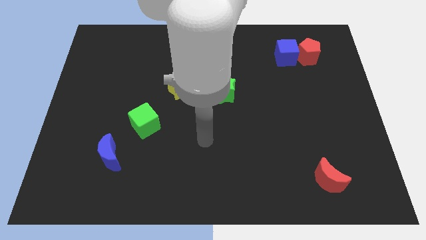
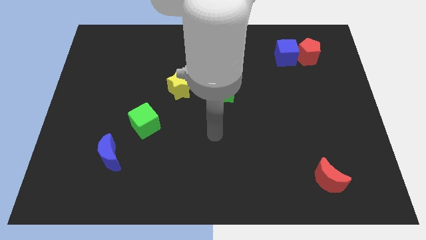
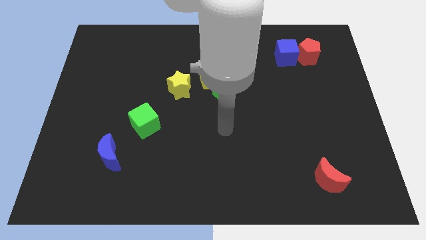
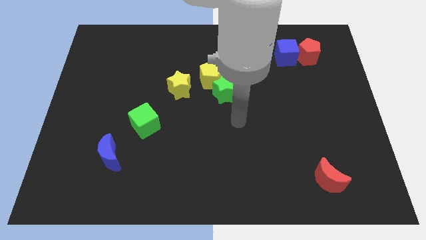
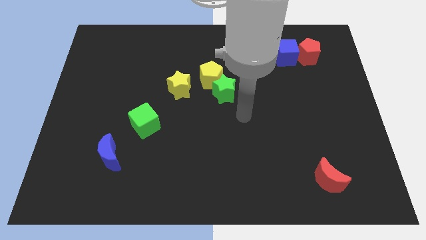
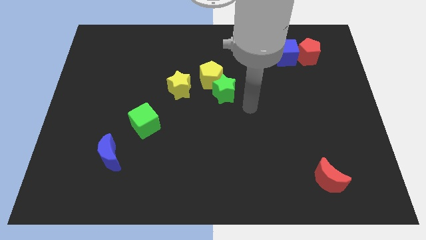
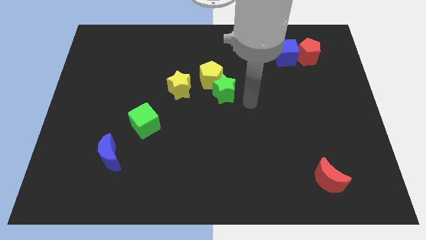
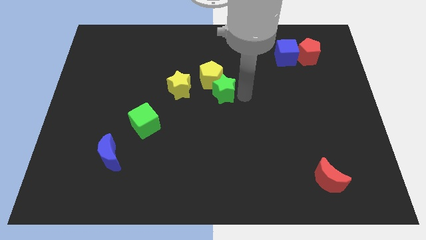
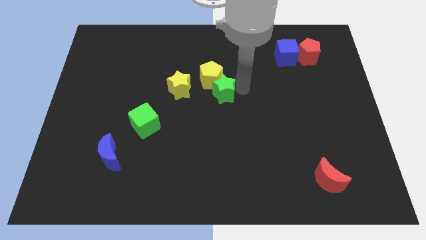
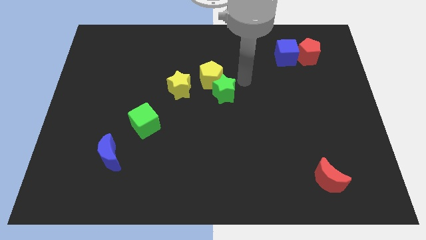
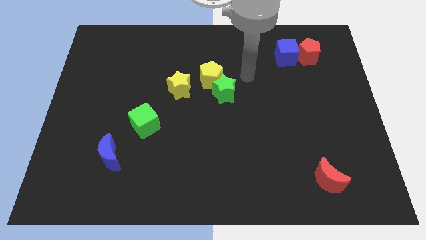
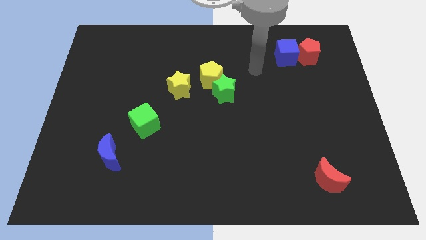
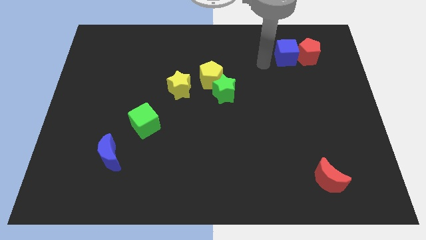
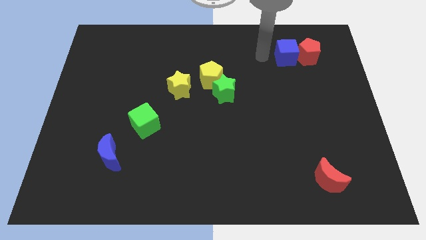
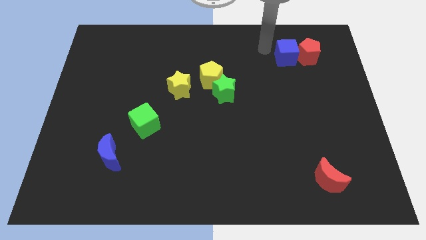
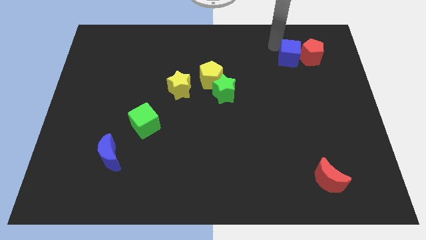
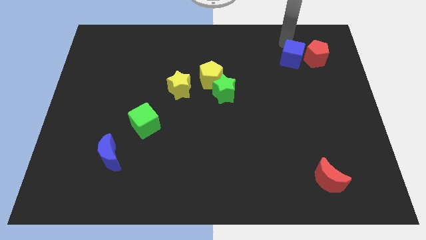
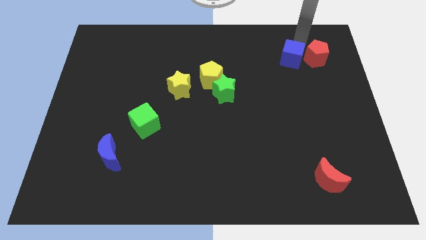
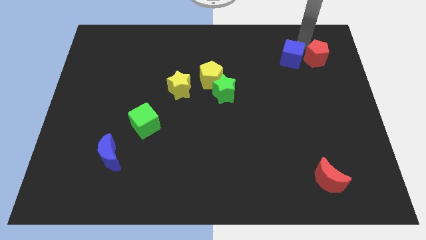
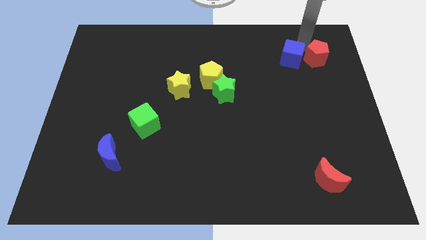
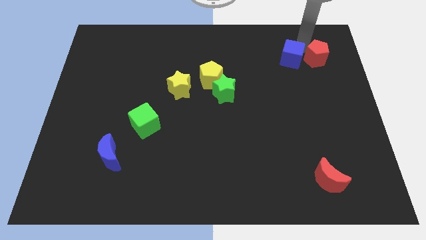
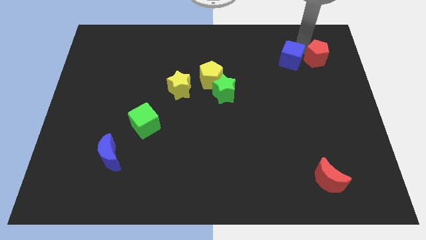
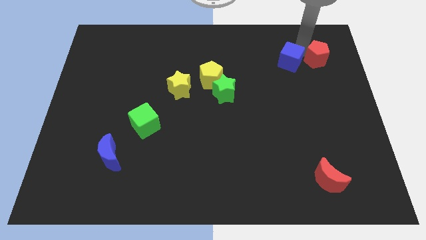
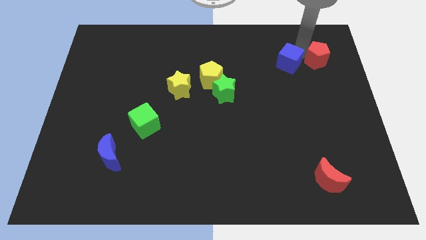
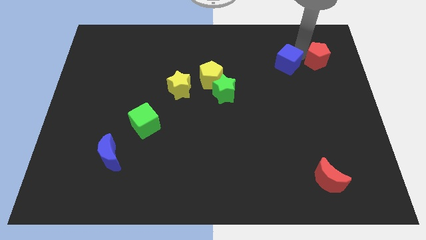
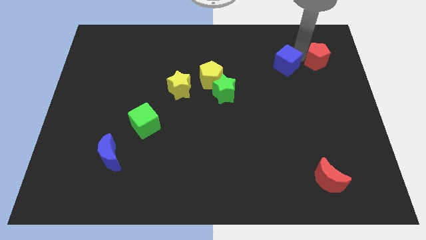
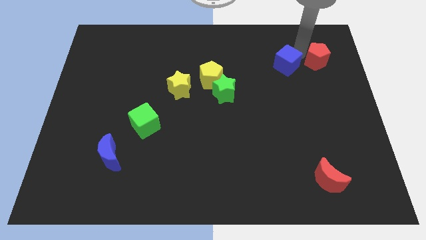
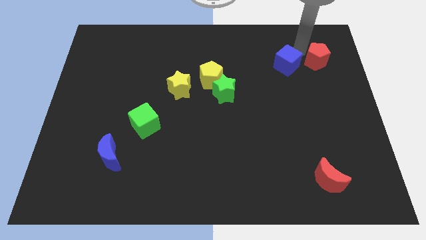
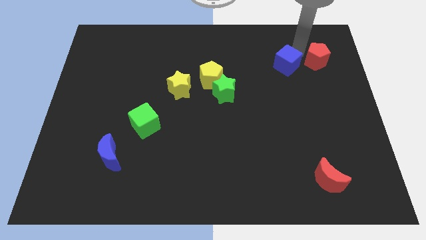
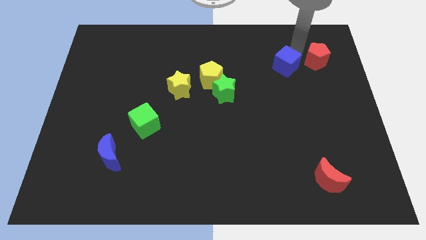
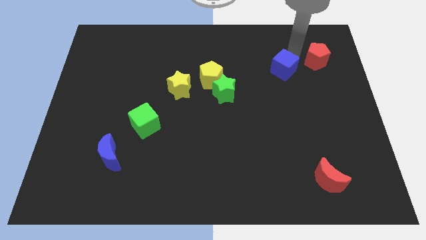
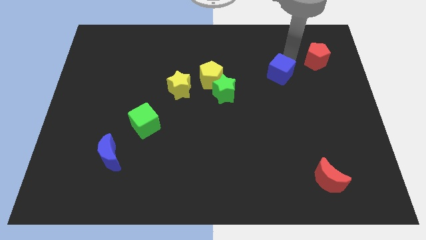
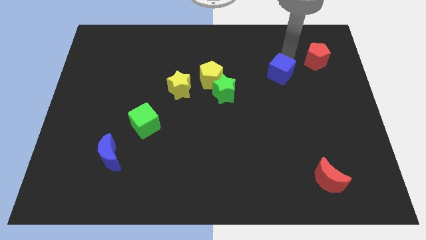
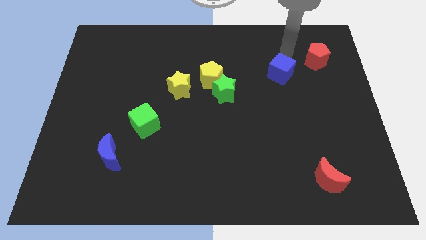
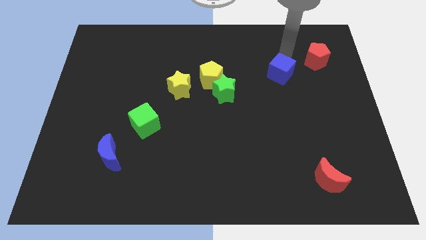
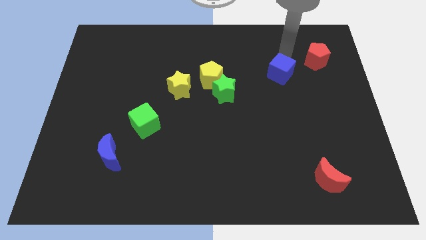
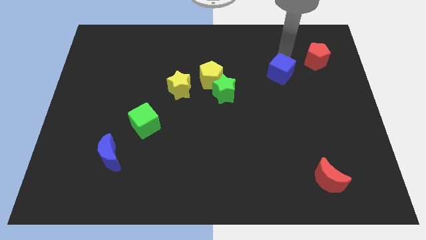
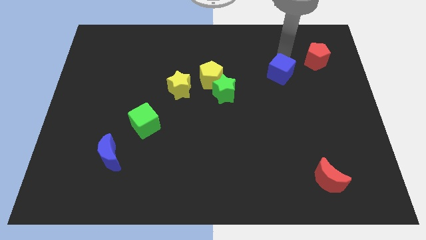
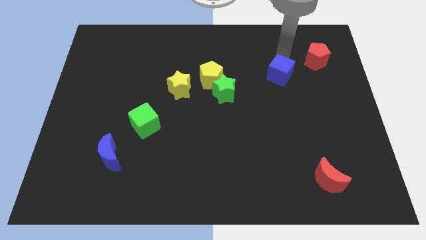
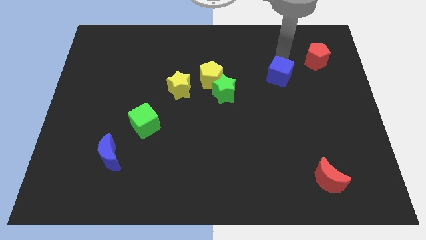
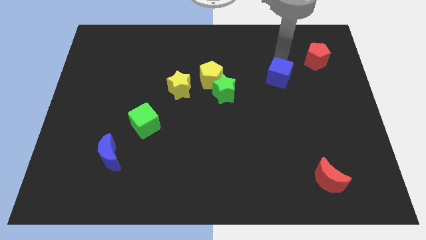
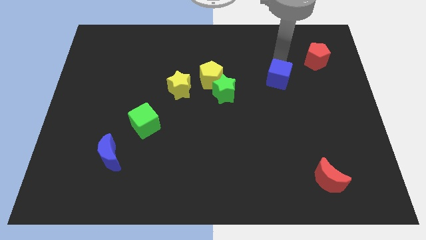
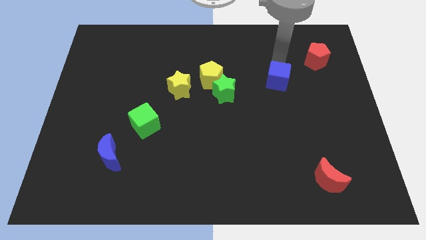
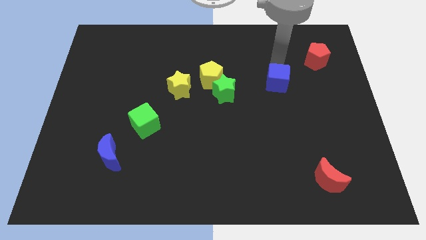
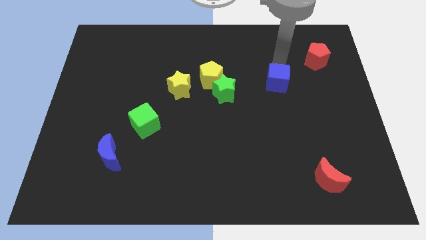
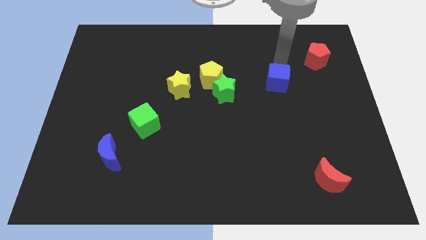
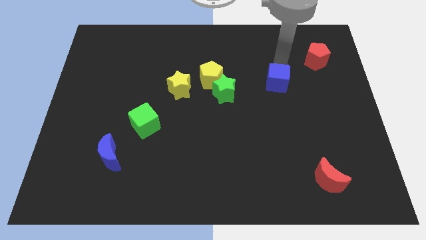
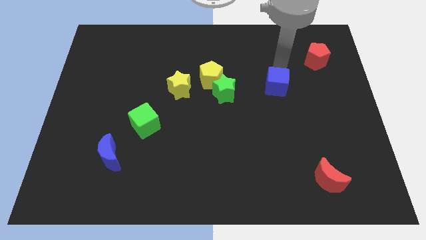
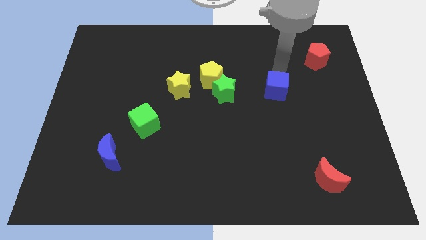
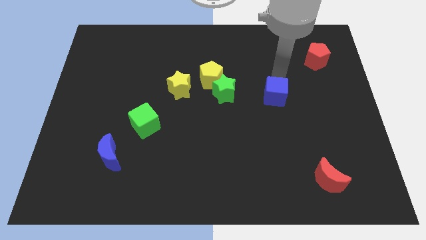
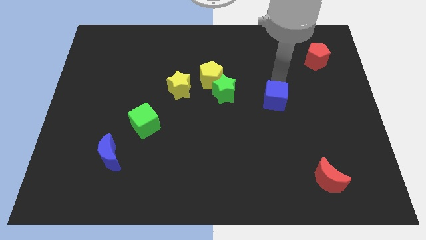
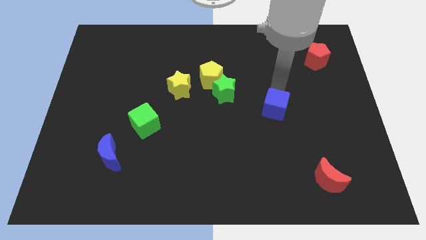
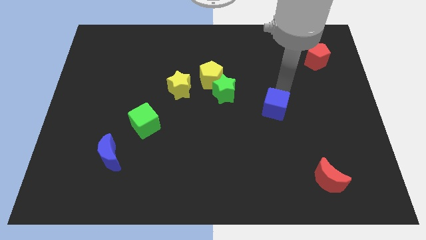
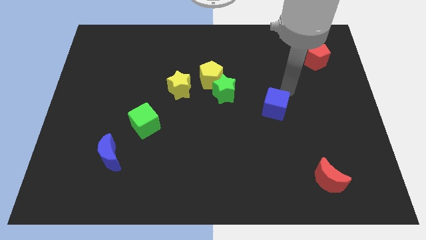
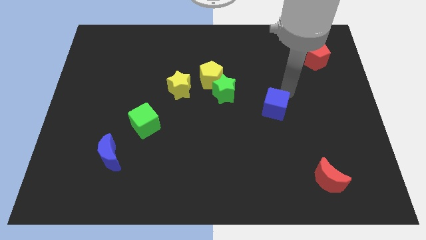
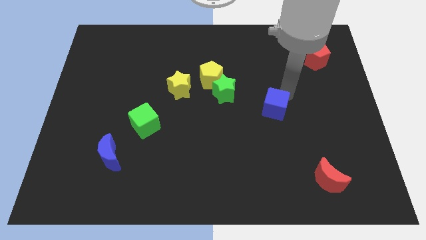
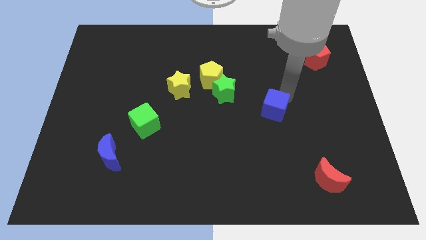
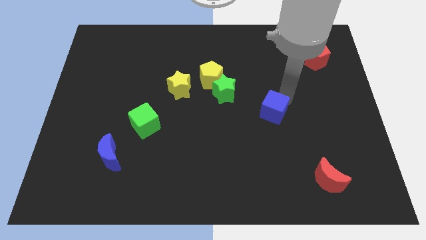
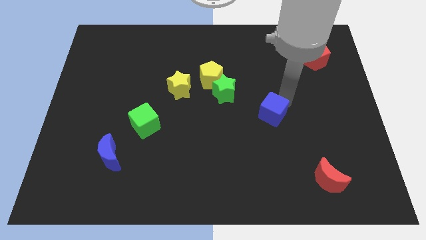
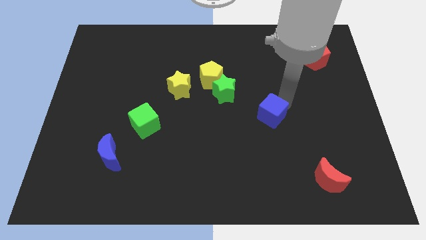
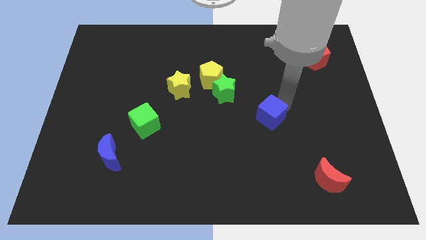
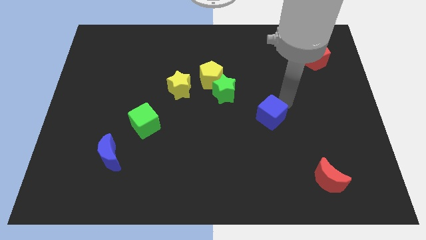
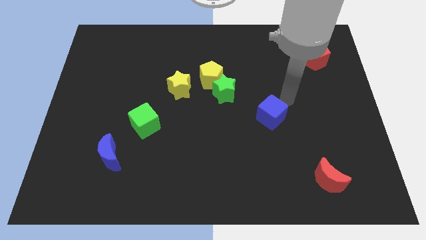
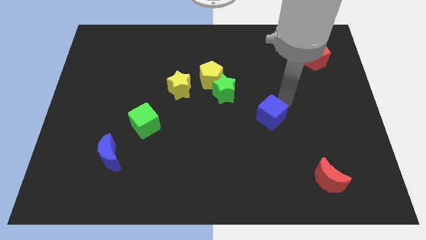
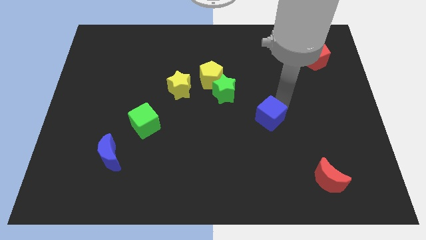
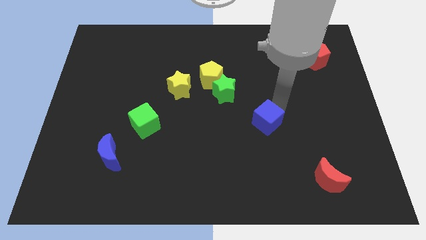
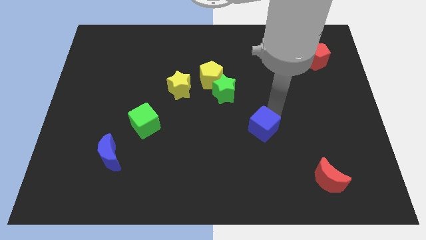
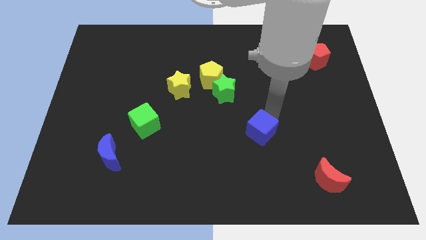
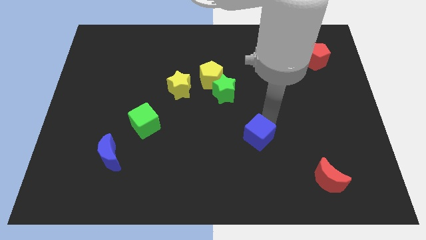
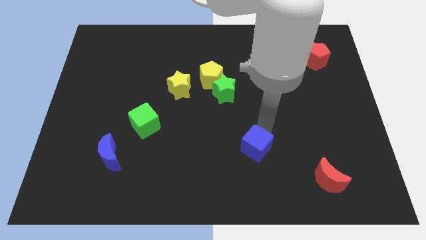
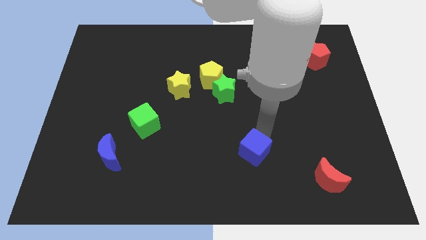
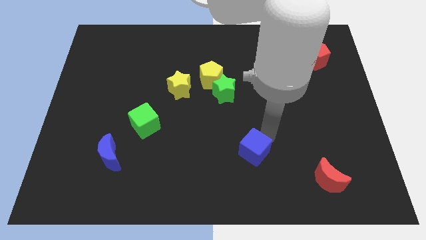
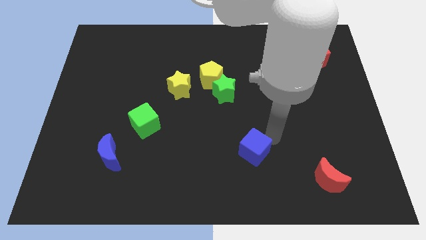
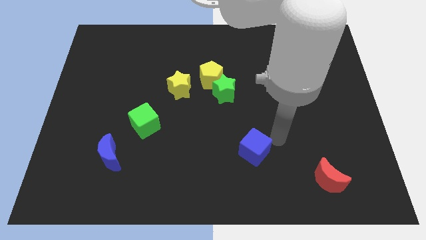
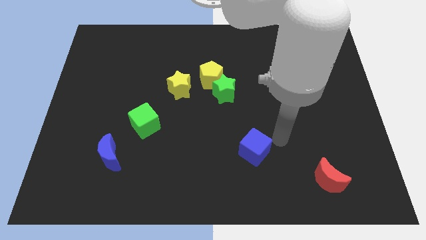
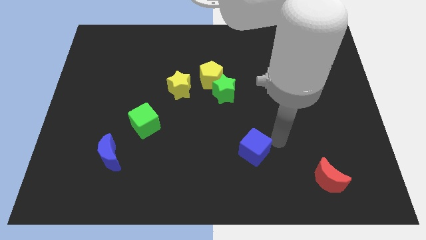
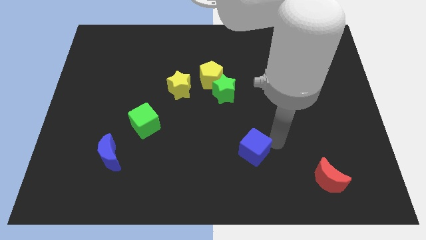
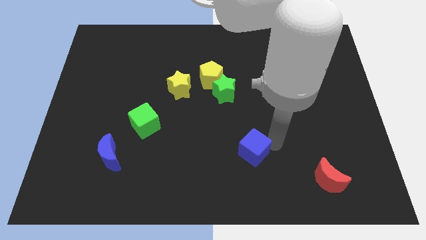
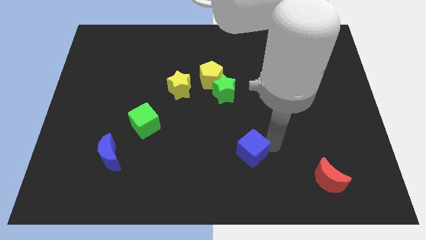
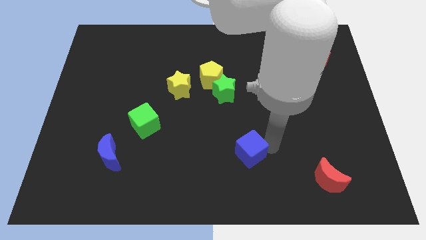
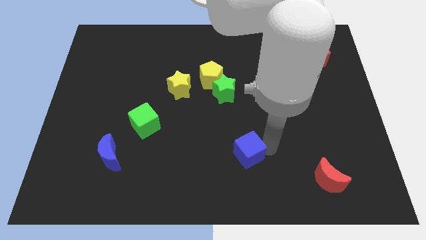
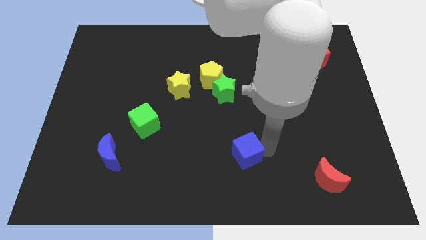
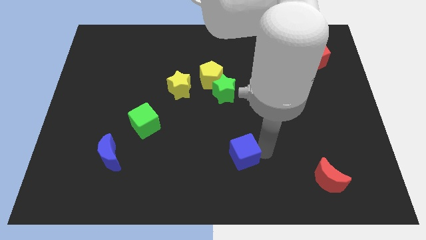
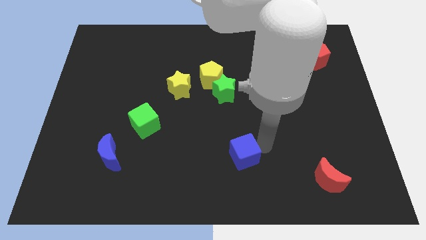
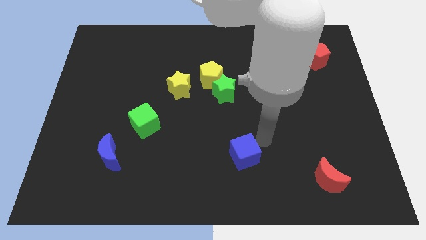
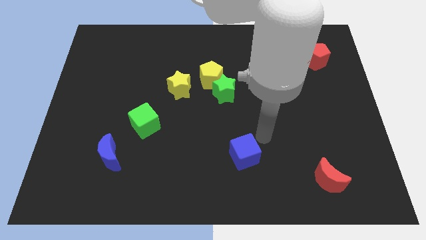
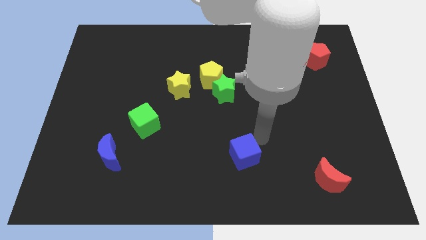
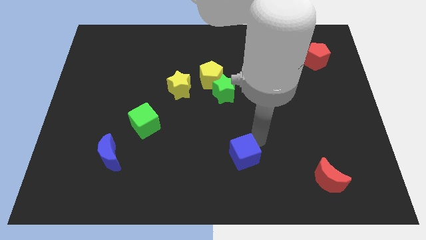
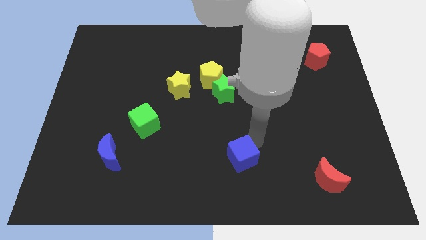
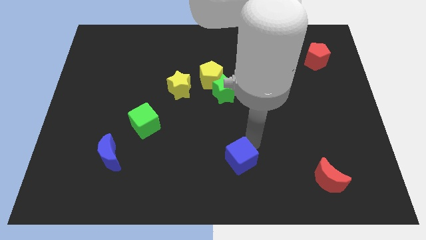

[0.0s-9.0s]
push the blue cube to the bottom side
